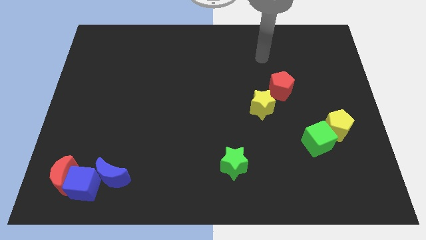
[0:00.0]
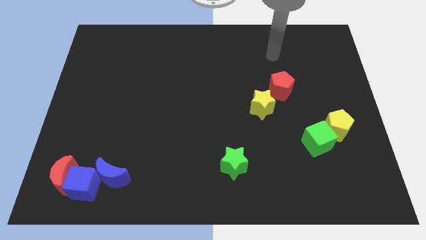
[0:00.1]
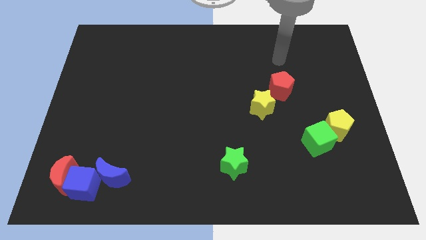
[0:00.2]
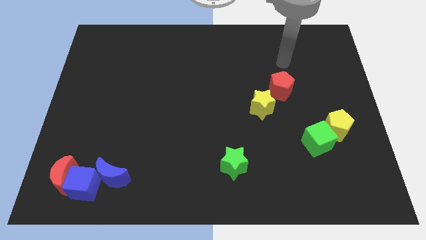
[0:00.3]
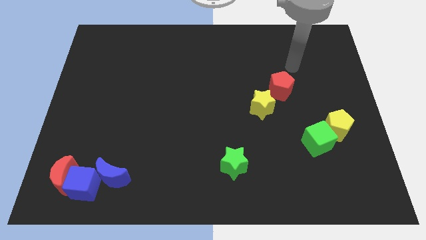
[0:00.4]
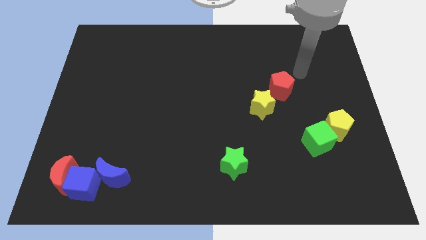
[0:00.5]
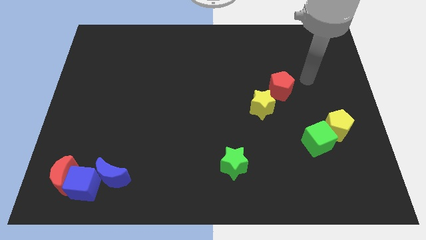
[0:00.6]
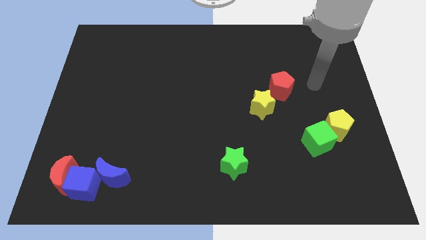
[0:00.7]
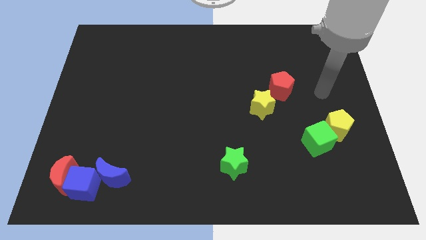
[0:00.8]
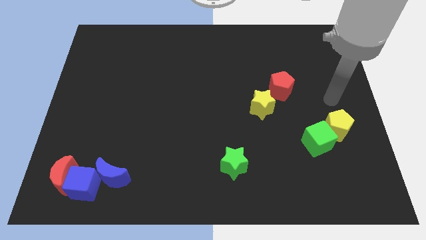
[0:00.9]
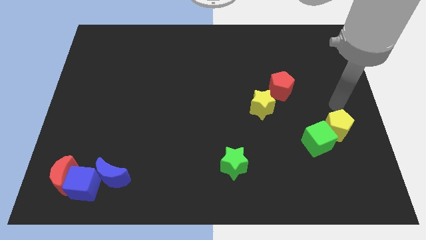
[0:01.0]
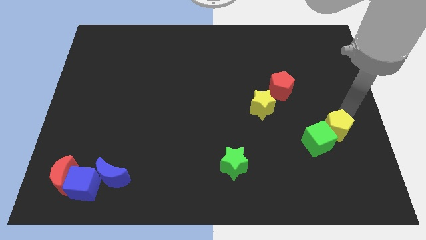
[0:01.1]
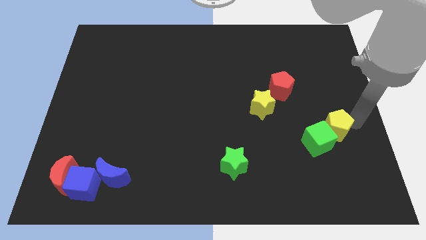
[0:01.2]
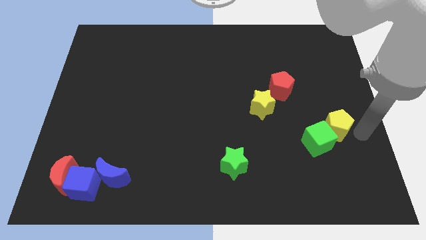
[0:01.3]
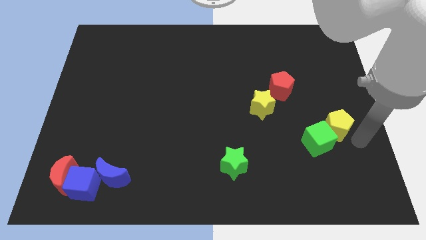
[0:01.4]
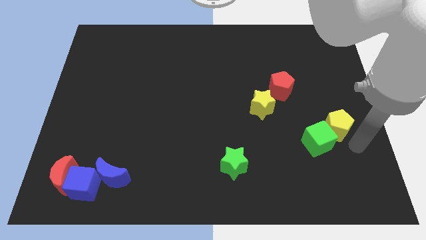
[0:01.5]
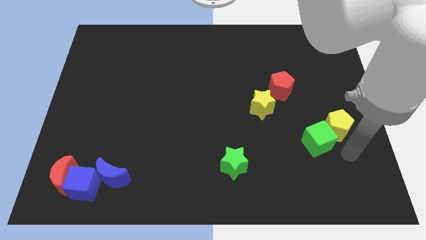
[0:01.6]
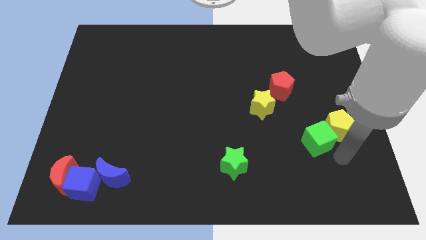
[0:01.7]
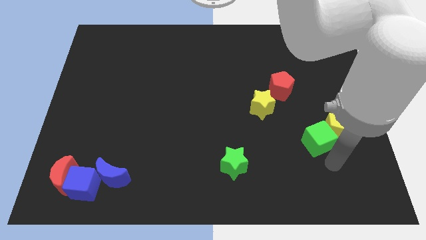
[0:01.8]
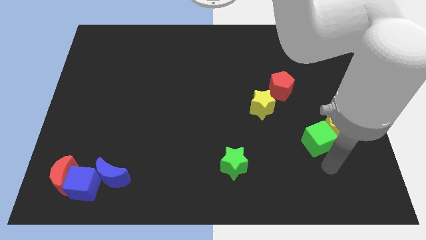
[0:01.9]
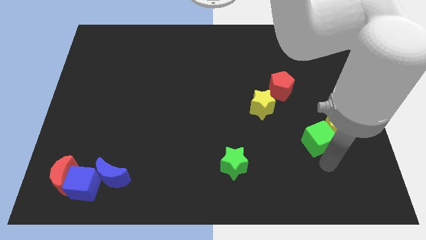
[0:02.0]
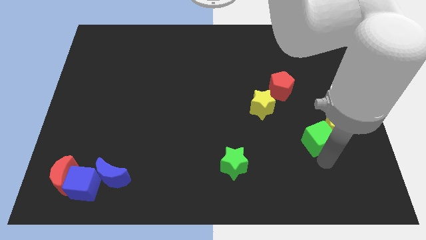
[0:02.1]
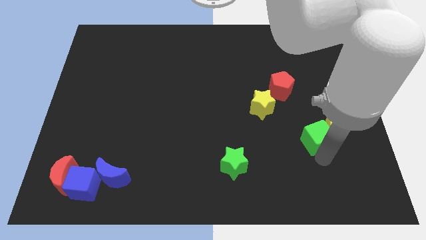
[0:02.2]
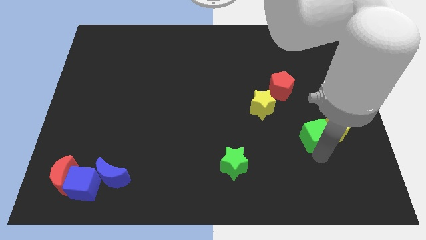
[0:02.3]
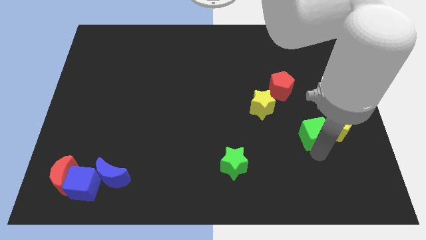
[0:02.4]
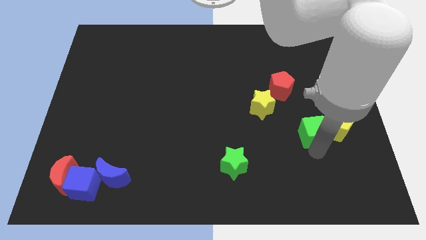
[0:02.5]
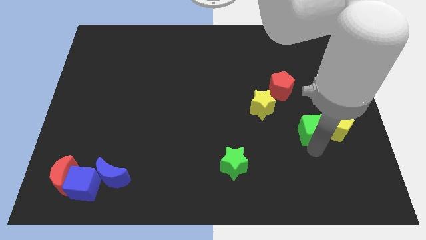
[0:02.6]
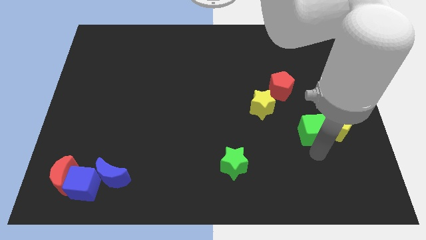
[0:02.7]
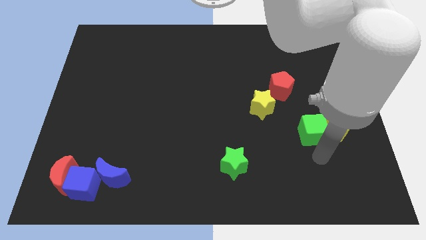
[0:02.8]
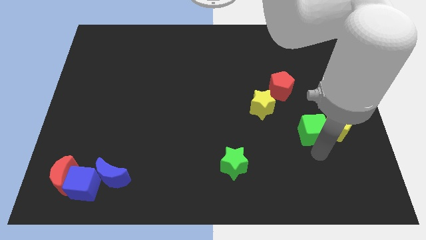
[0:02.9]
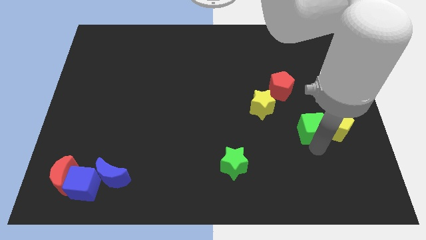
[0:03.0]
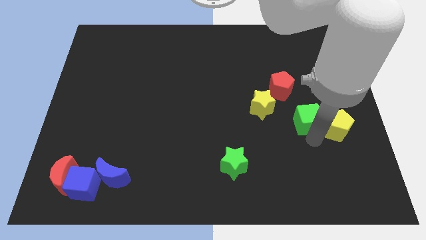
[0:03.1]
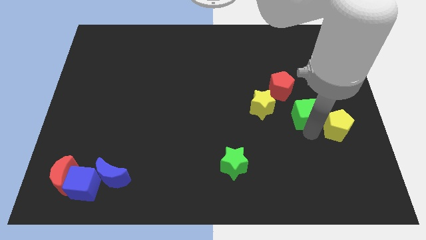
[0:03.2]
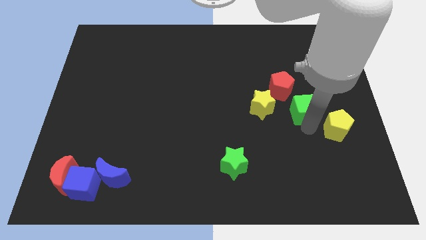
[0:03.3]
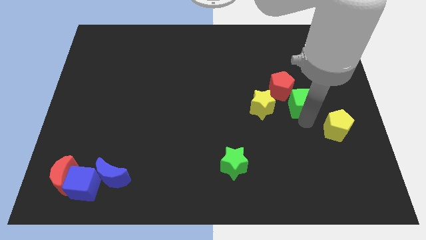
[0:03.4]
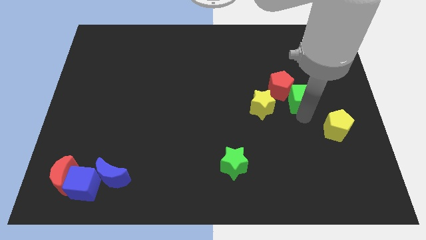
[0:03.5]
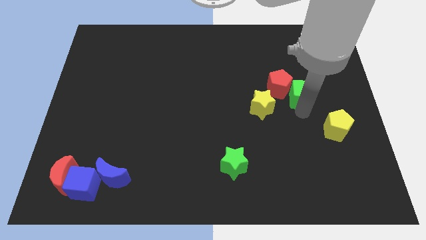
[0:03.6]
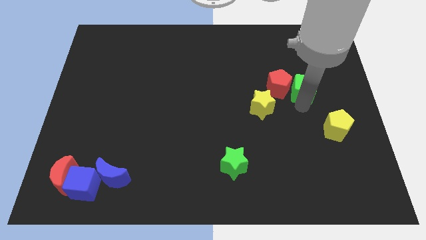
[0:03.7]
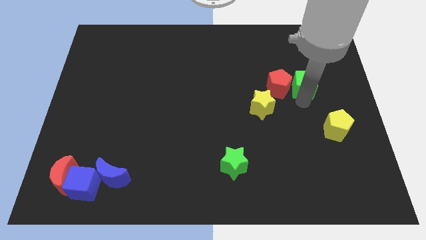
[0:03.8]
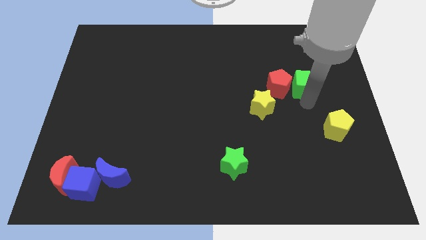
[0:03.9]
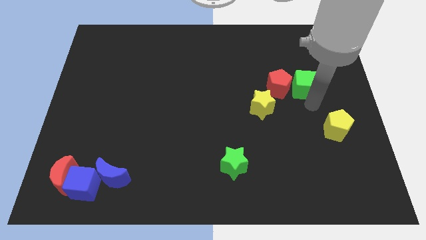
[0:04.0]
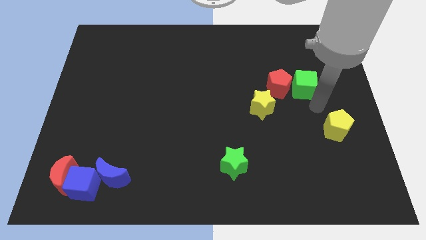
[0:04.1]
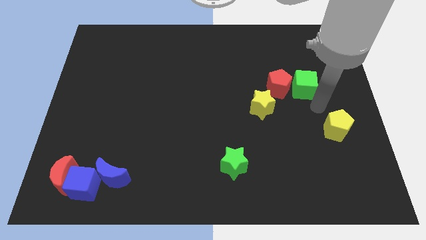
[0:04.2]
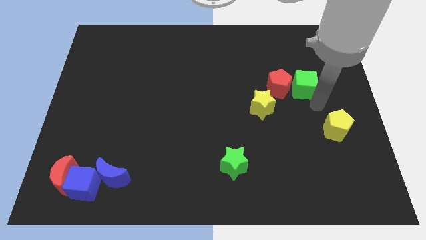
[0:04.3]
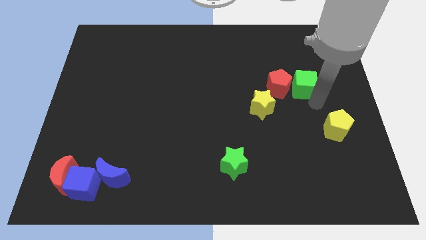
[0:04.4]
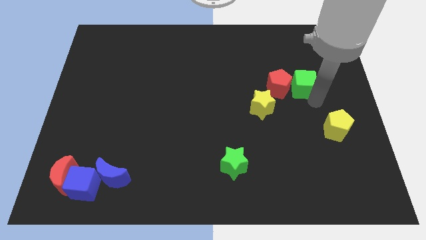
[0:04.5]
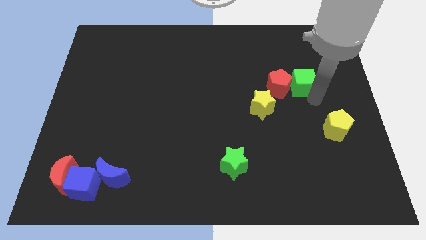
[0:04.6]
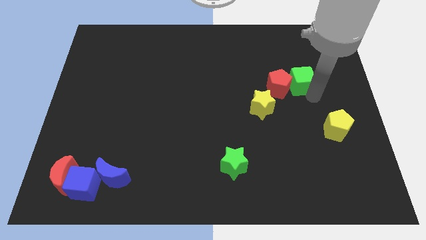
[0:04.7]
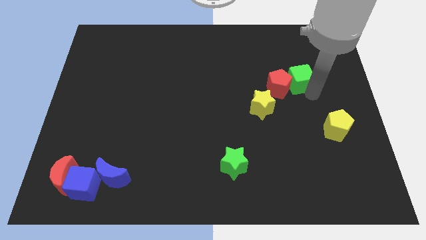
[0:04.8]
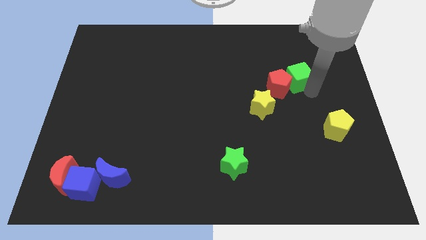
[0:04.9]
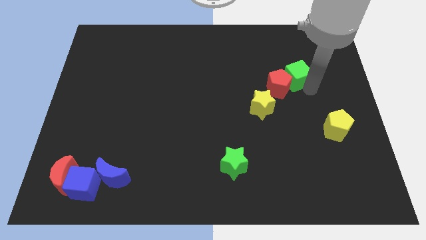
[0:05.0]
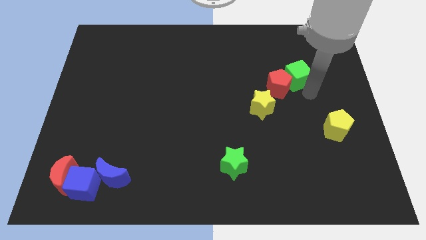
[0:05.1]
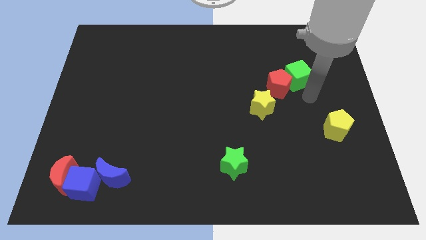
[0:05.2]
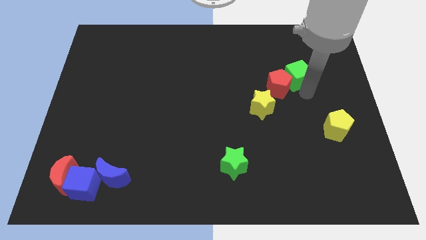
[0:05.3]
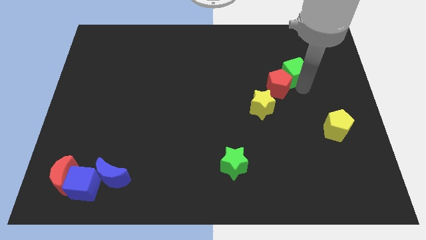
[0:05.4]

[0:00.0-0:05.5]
slide the green cube to the top side of the red pentagon

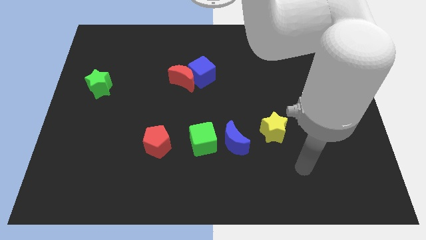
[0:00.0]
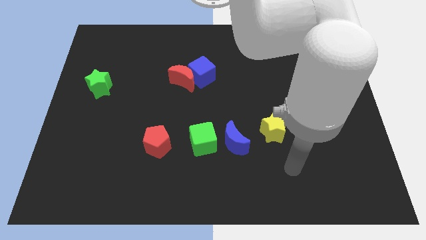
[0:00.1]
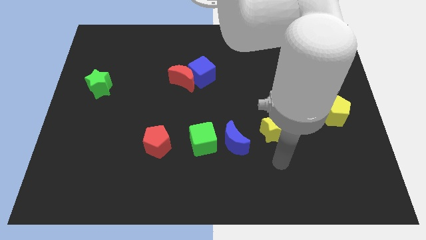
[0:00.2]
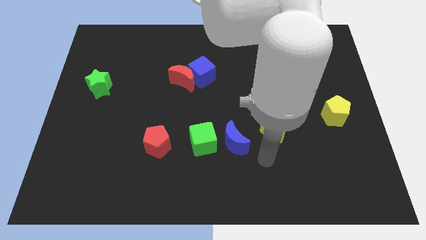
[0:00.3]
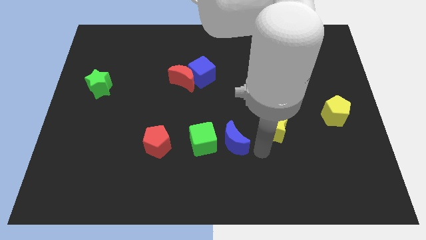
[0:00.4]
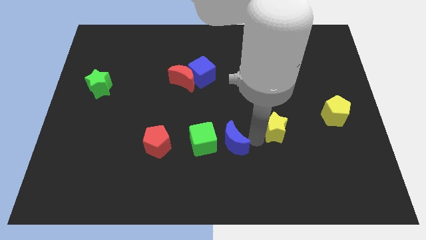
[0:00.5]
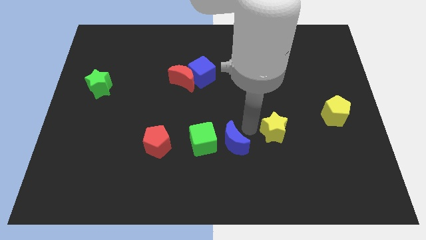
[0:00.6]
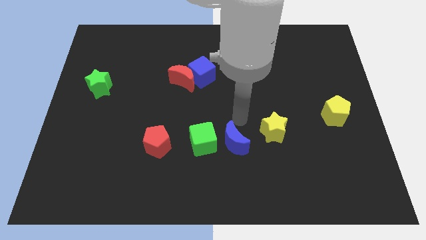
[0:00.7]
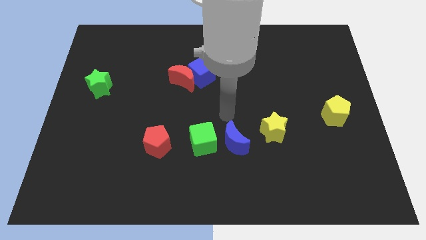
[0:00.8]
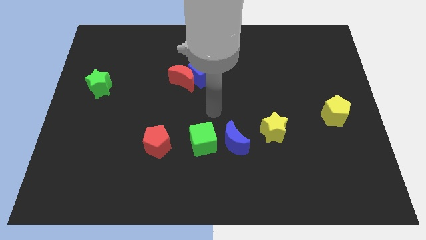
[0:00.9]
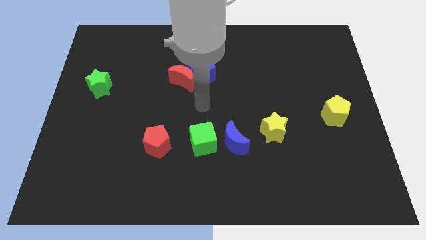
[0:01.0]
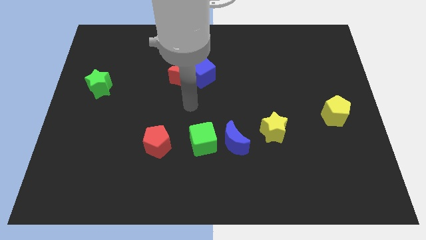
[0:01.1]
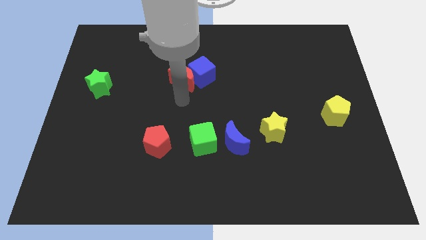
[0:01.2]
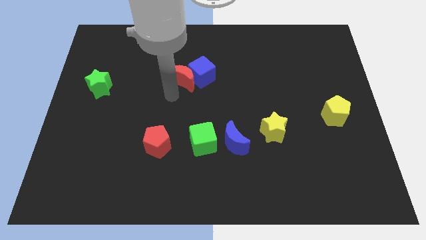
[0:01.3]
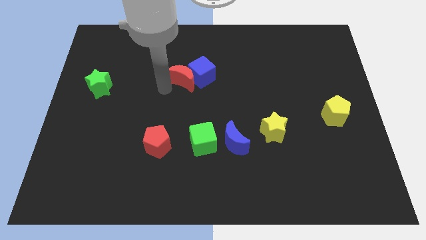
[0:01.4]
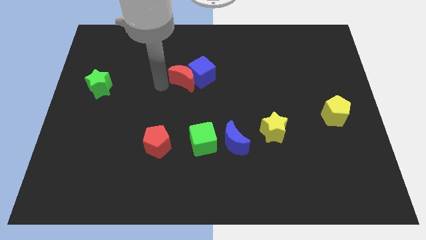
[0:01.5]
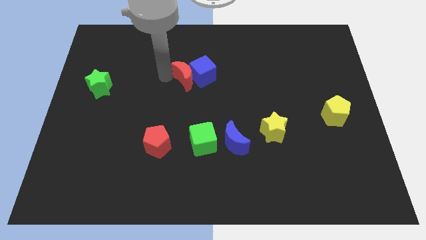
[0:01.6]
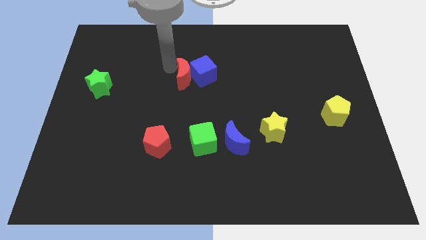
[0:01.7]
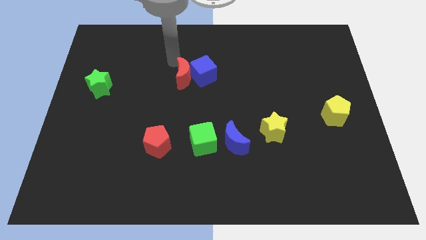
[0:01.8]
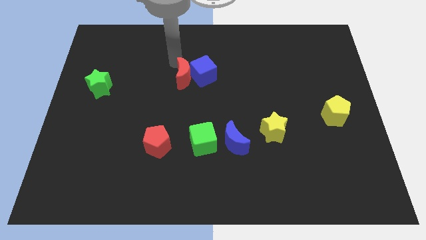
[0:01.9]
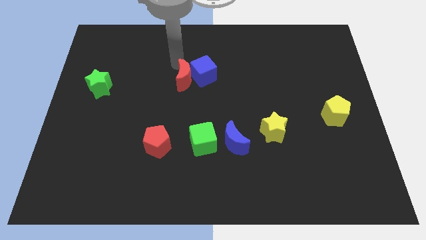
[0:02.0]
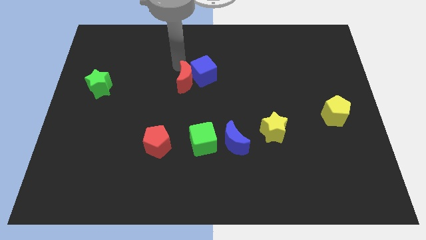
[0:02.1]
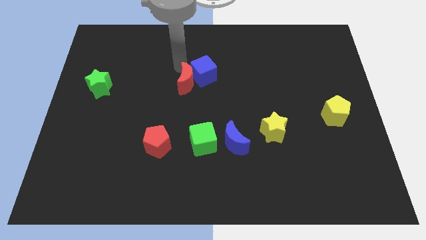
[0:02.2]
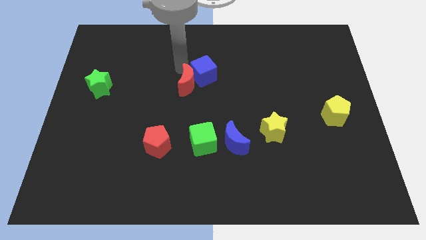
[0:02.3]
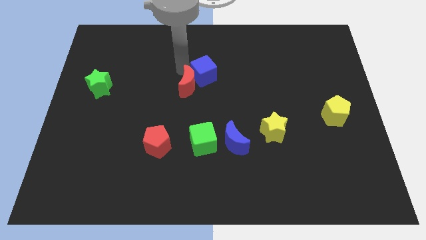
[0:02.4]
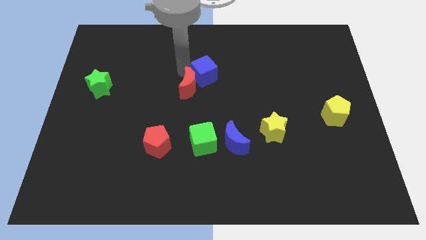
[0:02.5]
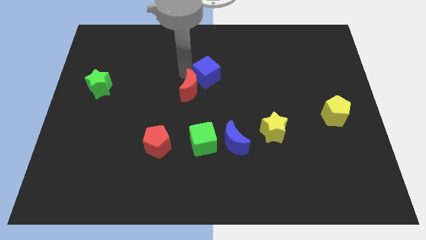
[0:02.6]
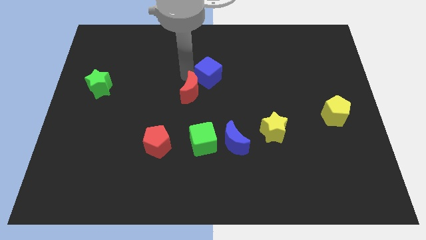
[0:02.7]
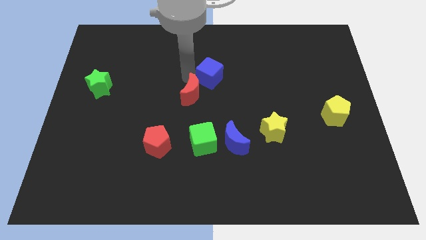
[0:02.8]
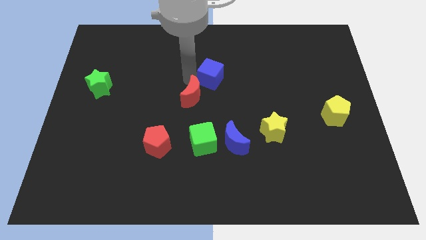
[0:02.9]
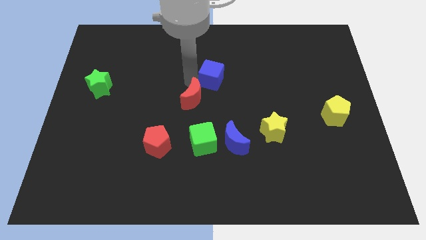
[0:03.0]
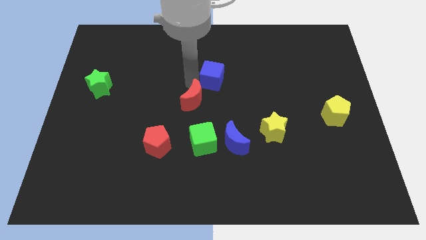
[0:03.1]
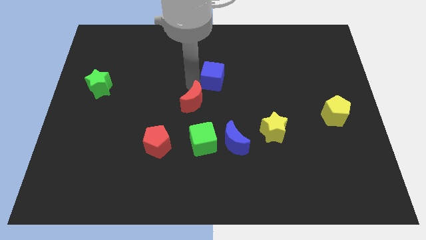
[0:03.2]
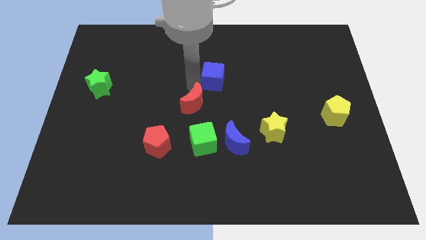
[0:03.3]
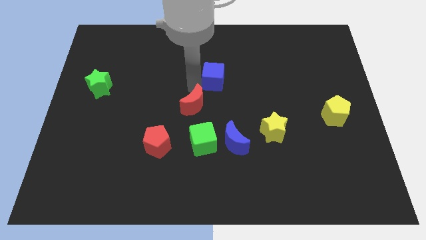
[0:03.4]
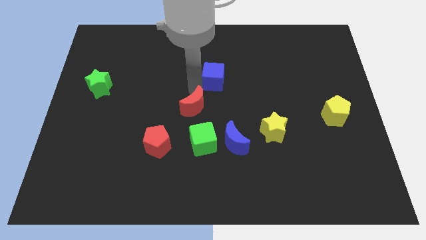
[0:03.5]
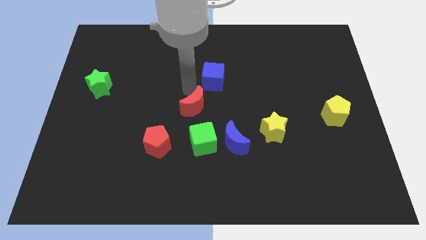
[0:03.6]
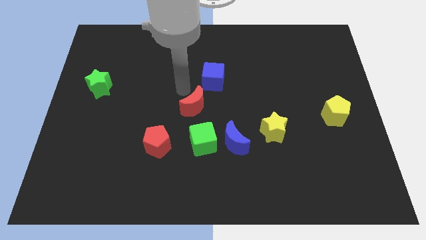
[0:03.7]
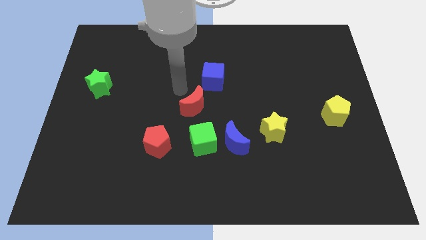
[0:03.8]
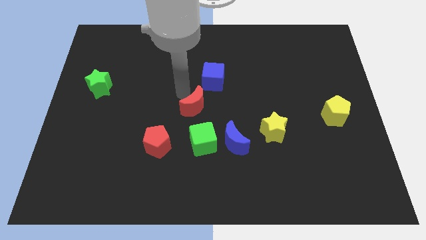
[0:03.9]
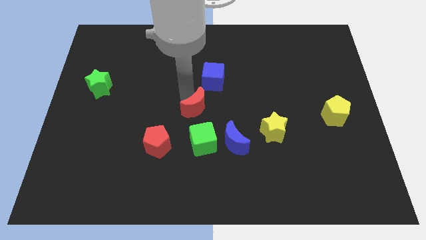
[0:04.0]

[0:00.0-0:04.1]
move the red moon to the top left of the blue moon
